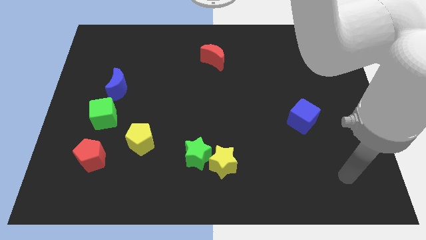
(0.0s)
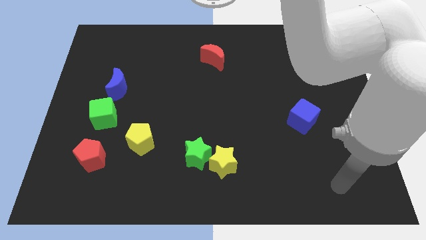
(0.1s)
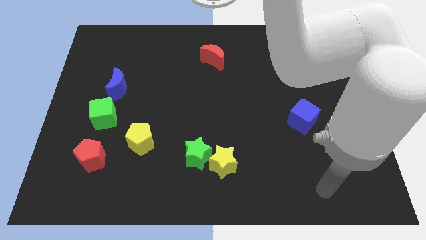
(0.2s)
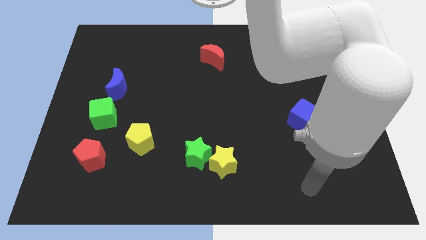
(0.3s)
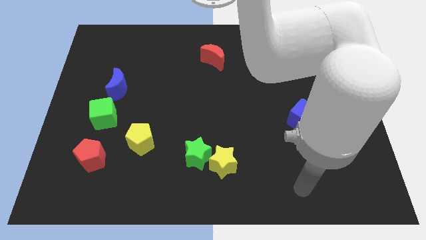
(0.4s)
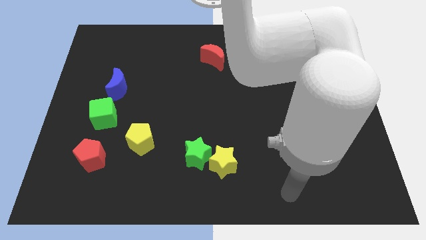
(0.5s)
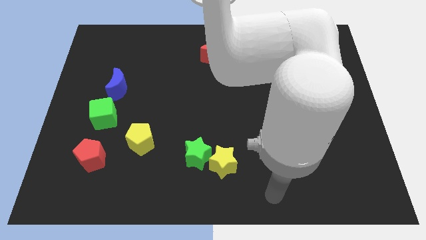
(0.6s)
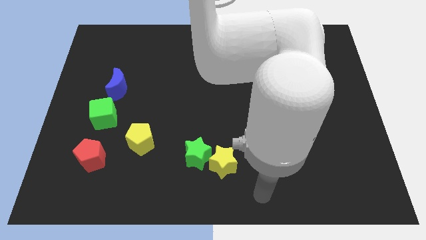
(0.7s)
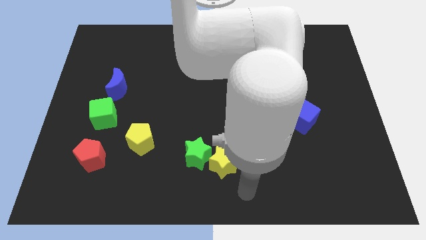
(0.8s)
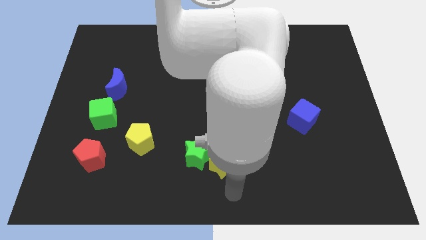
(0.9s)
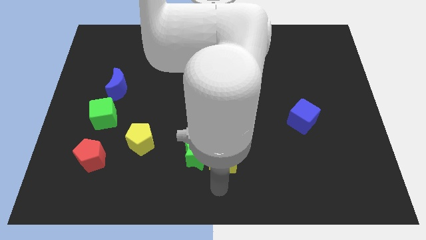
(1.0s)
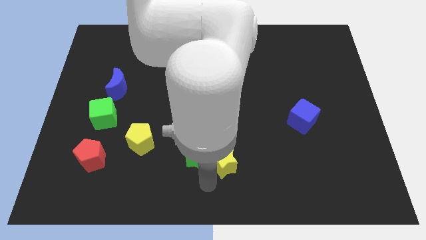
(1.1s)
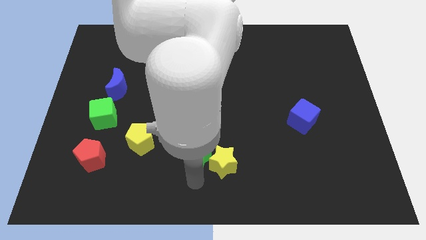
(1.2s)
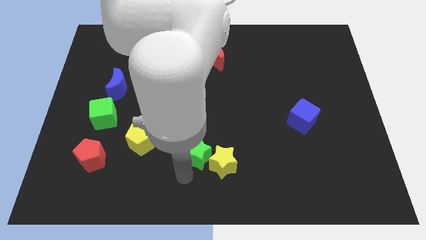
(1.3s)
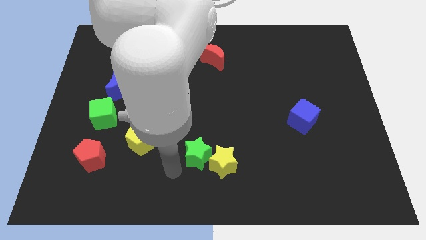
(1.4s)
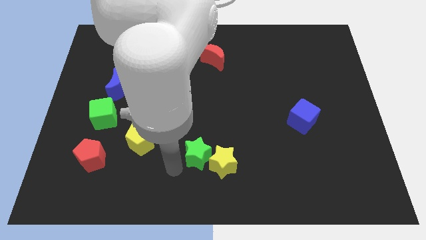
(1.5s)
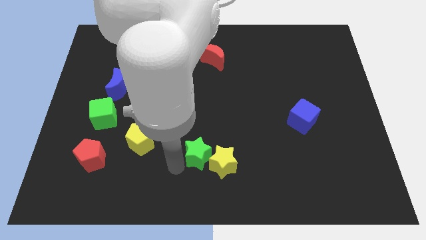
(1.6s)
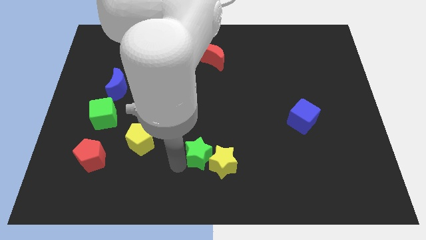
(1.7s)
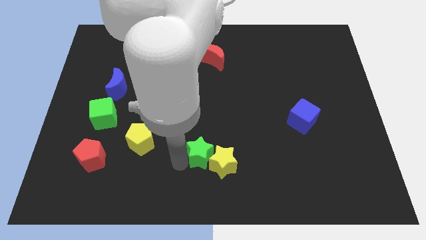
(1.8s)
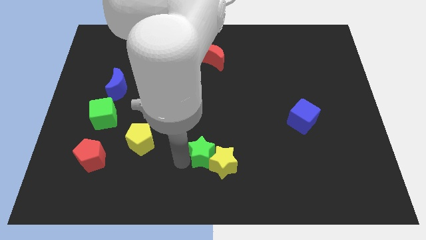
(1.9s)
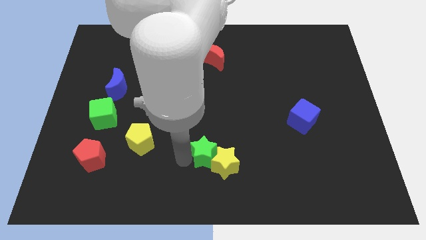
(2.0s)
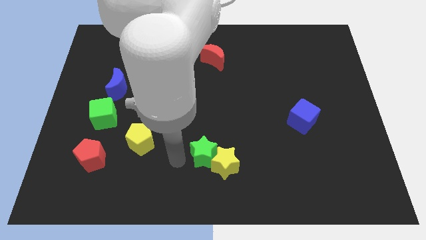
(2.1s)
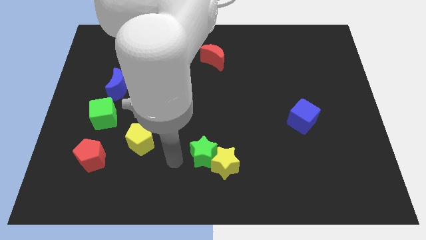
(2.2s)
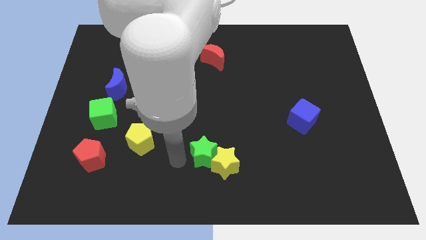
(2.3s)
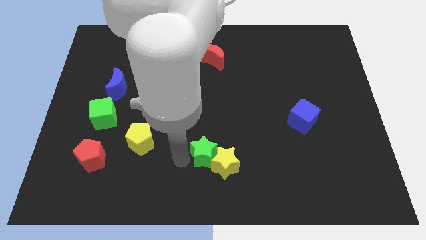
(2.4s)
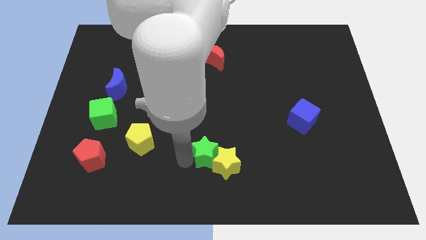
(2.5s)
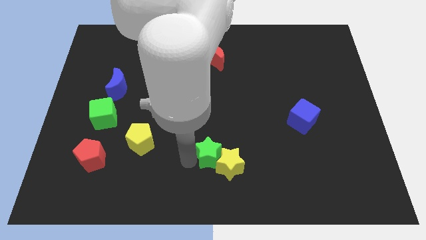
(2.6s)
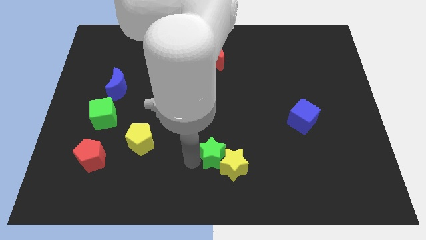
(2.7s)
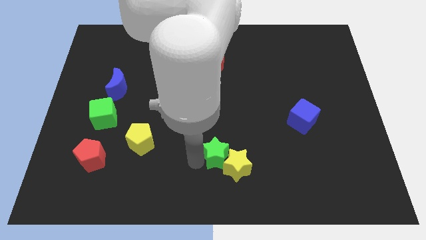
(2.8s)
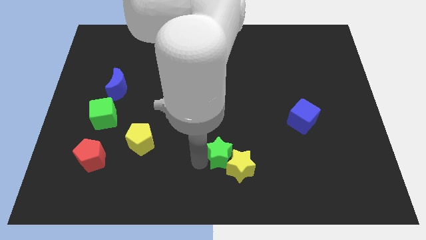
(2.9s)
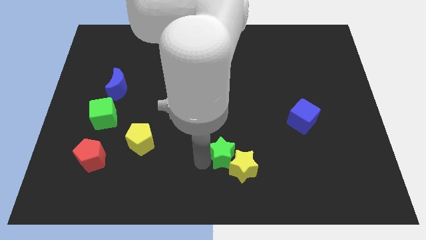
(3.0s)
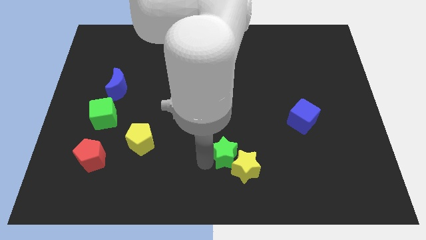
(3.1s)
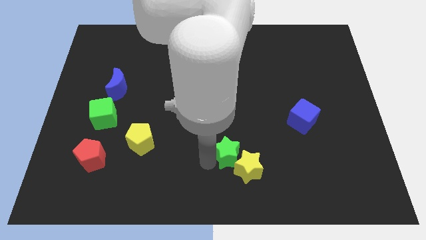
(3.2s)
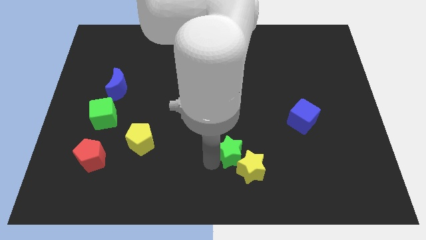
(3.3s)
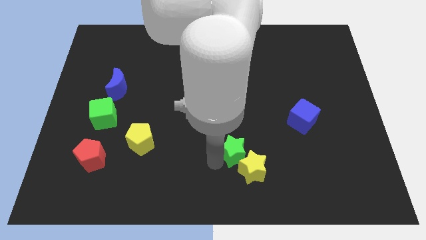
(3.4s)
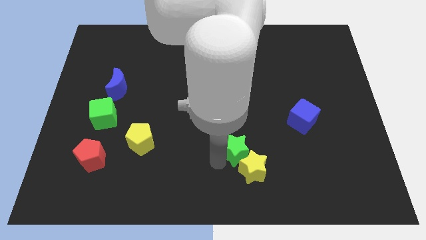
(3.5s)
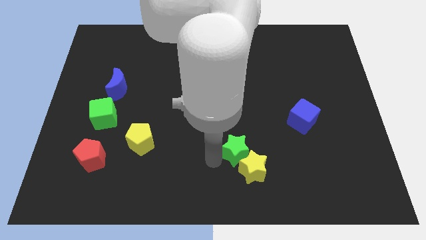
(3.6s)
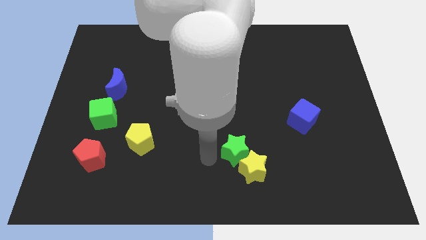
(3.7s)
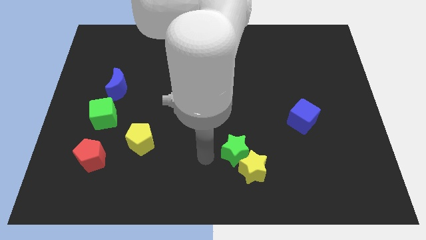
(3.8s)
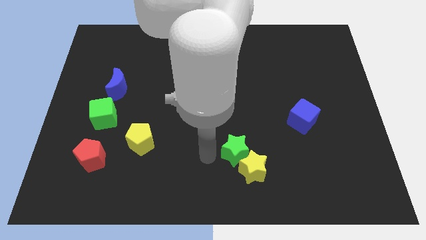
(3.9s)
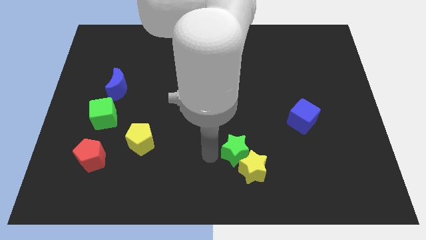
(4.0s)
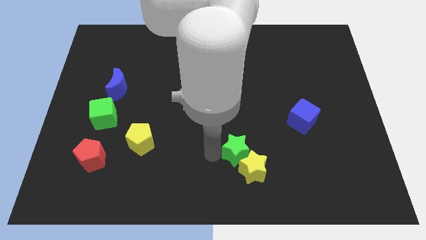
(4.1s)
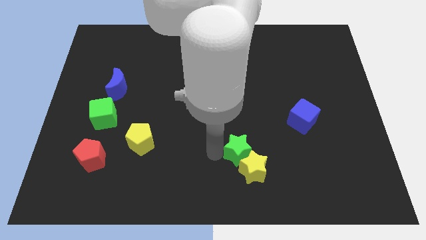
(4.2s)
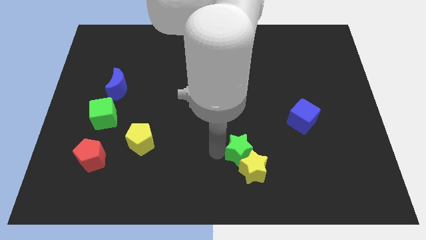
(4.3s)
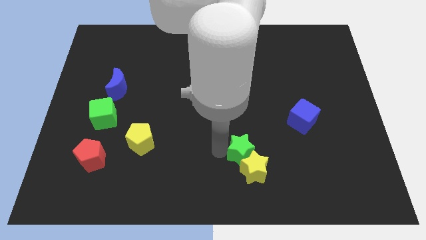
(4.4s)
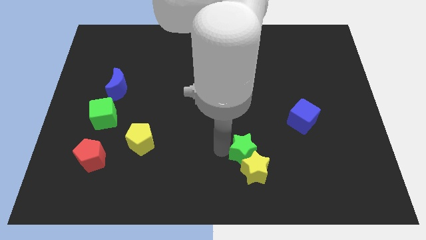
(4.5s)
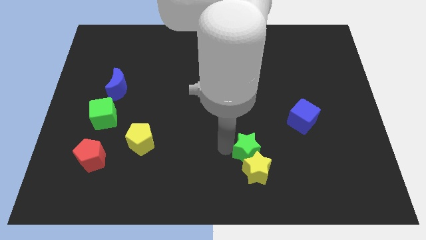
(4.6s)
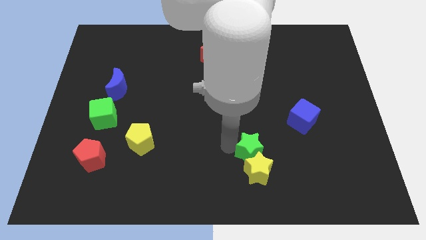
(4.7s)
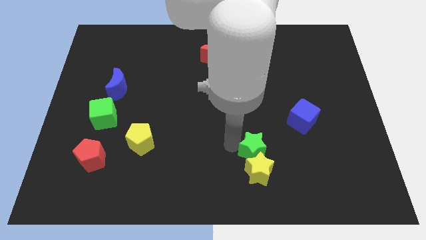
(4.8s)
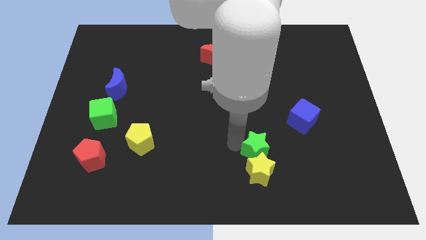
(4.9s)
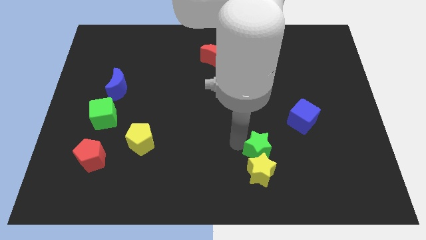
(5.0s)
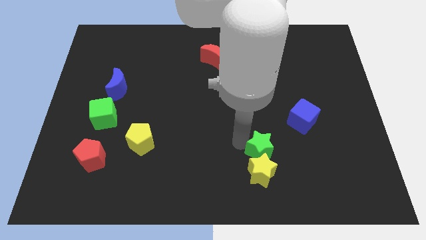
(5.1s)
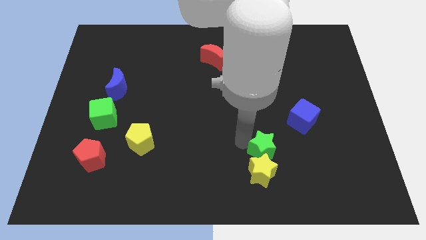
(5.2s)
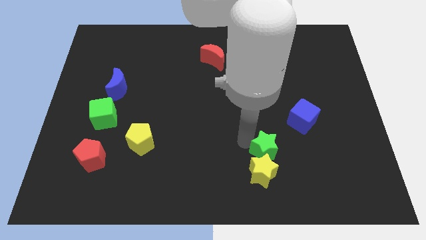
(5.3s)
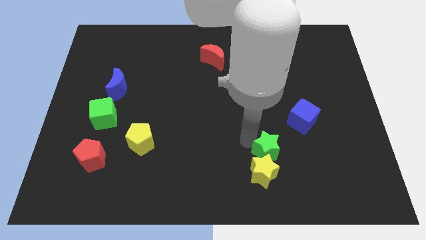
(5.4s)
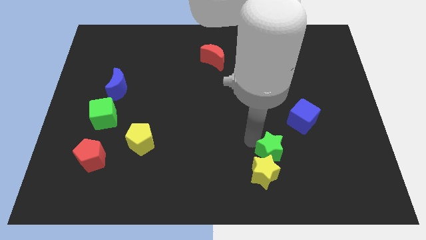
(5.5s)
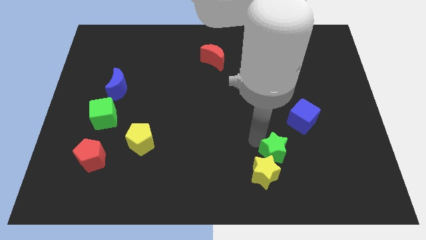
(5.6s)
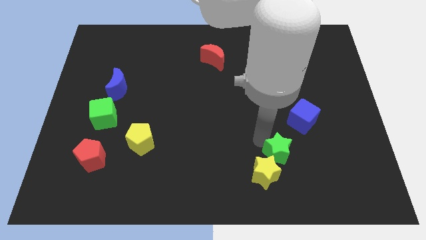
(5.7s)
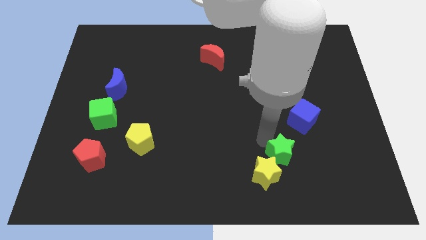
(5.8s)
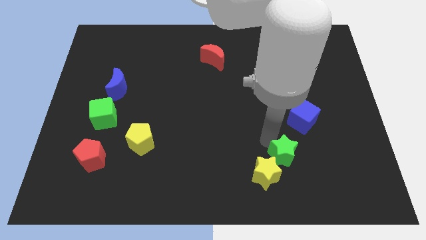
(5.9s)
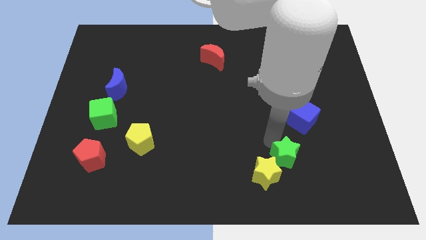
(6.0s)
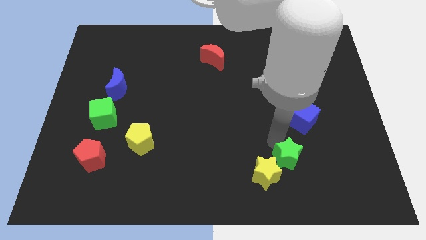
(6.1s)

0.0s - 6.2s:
put the green star below the blue cube

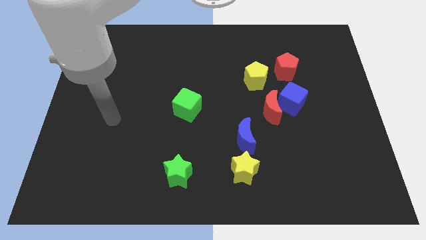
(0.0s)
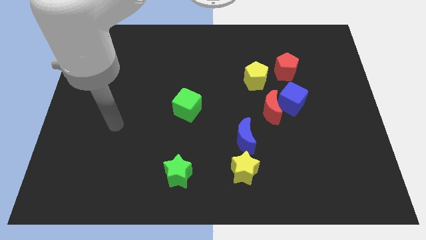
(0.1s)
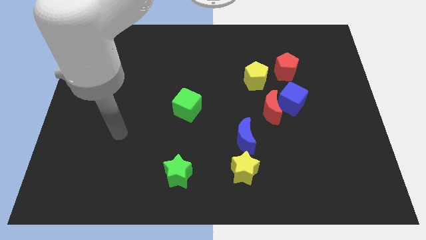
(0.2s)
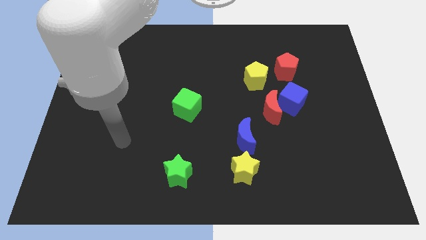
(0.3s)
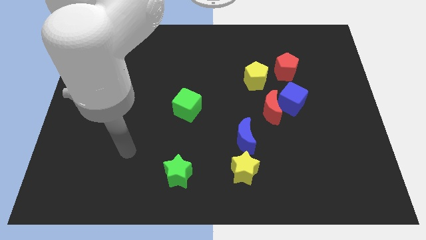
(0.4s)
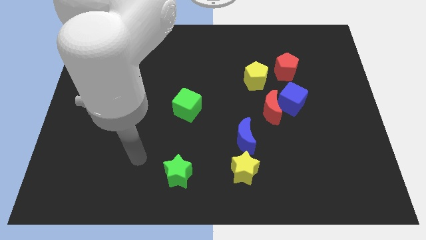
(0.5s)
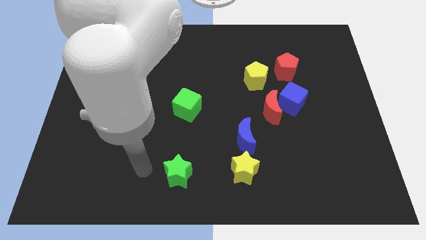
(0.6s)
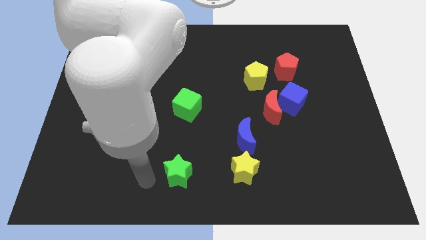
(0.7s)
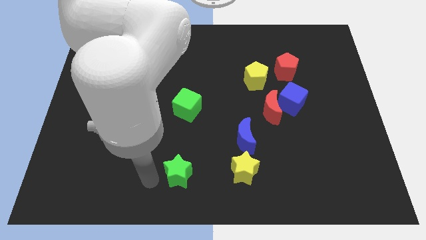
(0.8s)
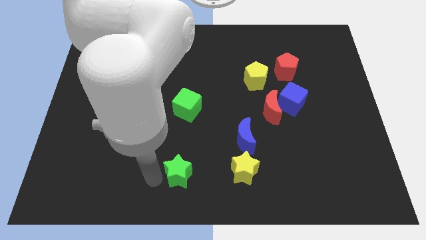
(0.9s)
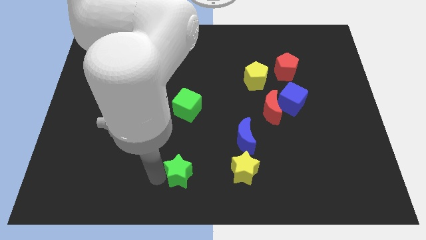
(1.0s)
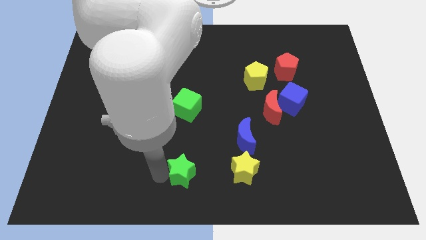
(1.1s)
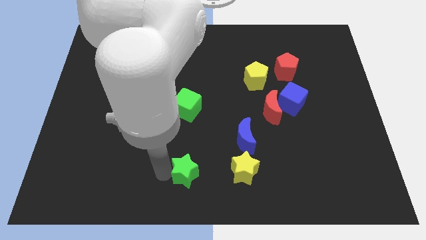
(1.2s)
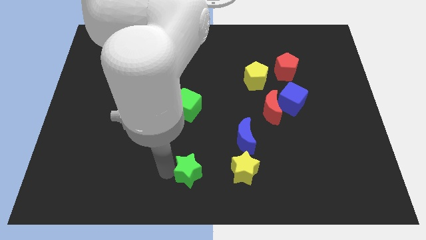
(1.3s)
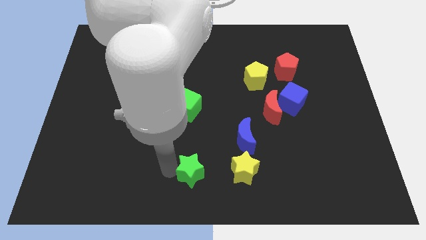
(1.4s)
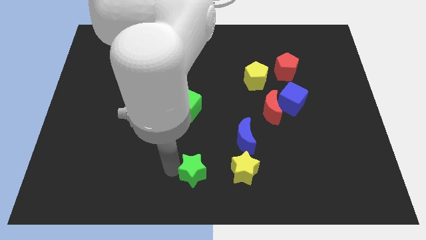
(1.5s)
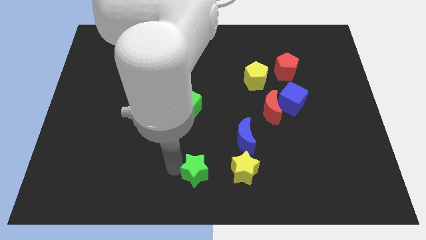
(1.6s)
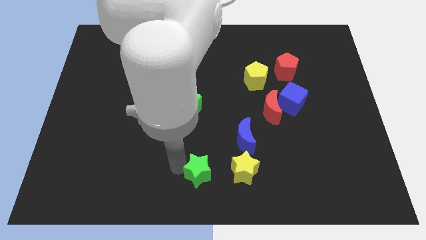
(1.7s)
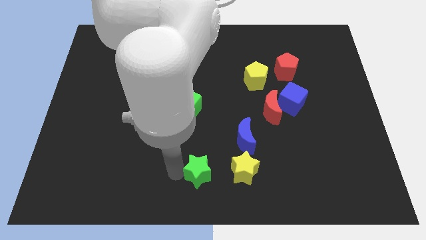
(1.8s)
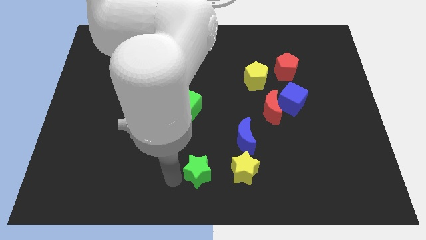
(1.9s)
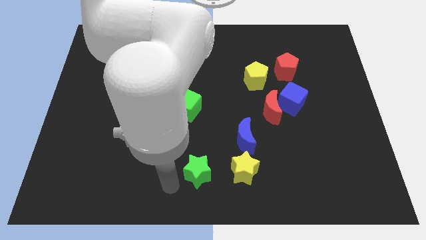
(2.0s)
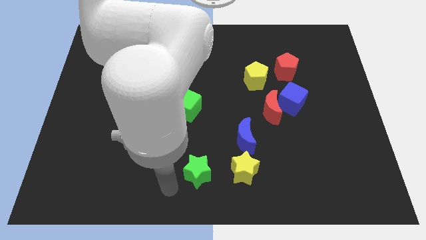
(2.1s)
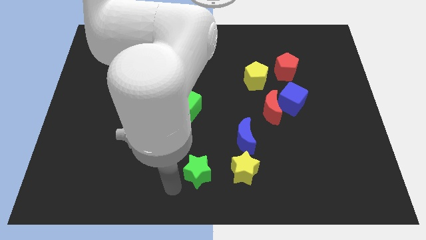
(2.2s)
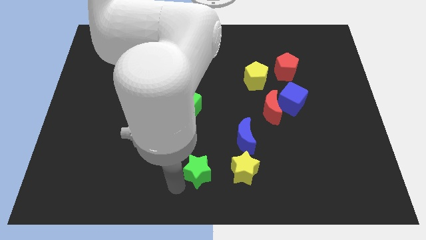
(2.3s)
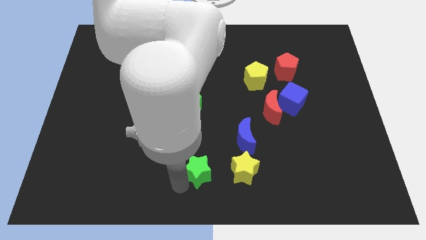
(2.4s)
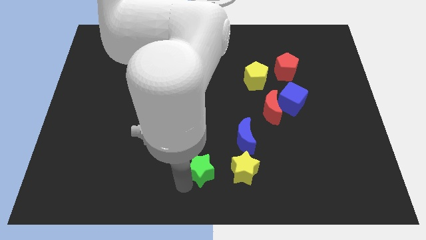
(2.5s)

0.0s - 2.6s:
slide the green star to the bottom left of the blue moon
